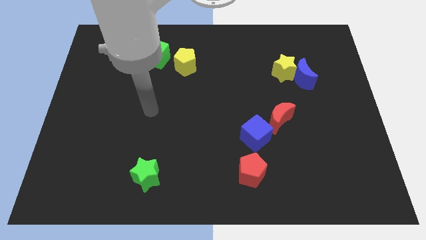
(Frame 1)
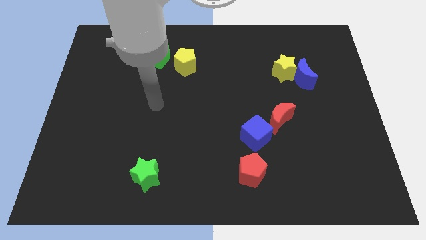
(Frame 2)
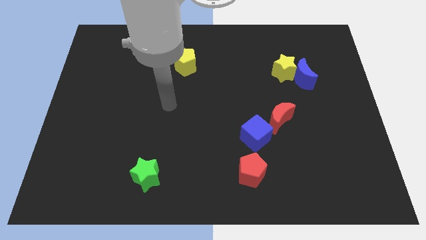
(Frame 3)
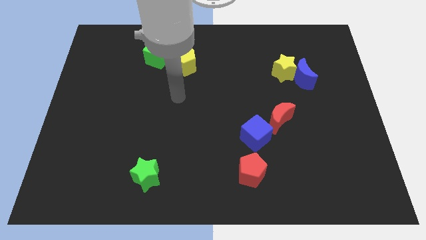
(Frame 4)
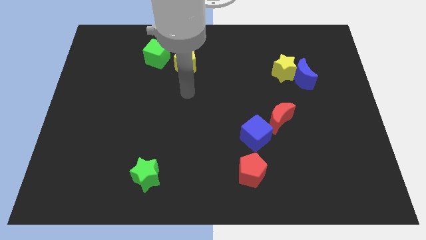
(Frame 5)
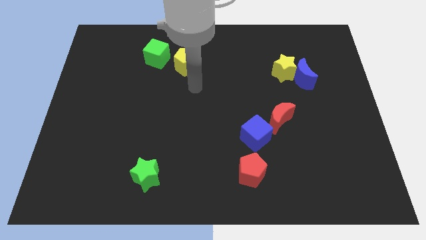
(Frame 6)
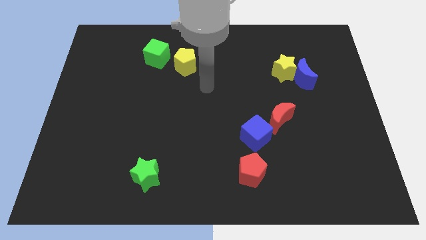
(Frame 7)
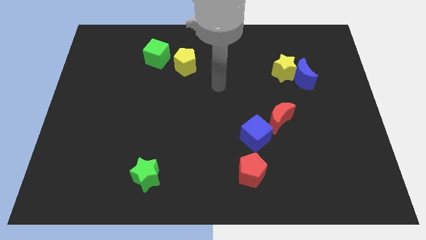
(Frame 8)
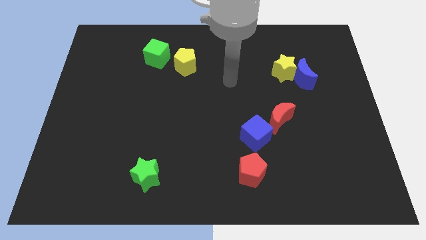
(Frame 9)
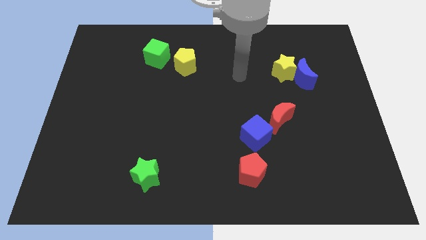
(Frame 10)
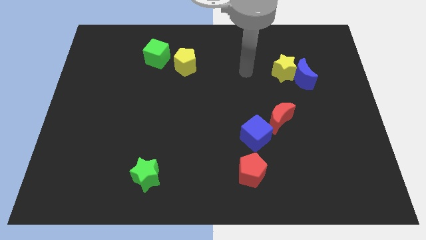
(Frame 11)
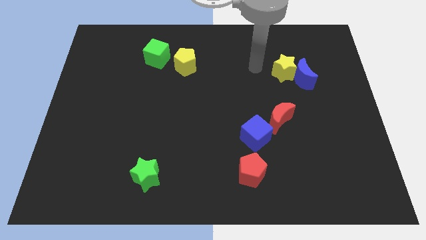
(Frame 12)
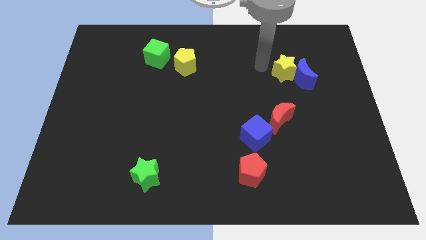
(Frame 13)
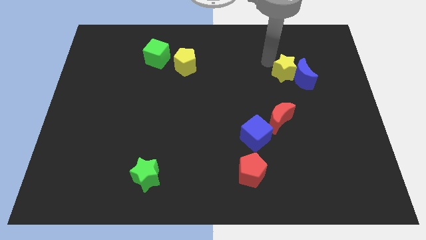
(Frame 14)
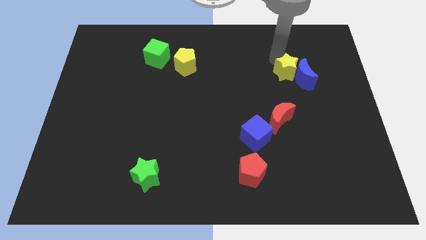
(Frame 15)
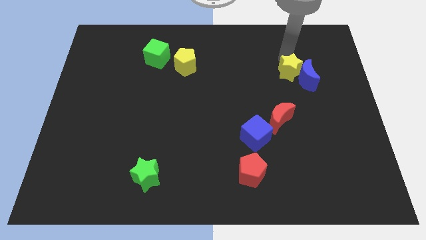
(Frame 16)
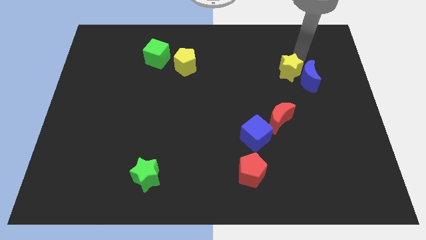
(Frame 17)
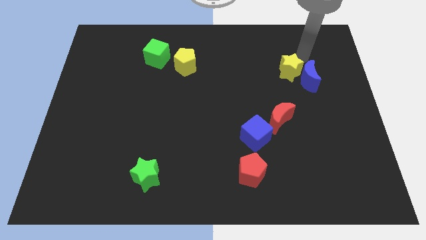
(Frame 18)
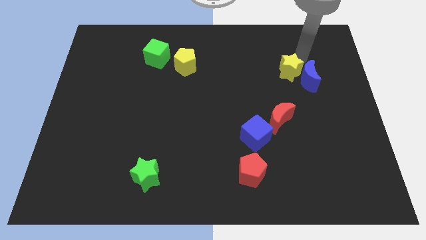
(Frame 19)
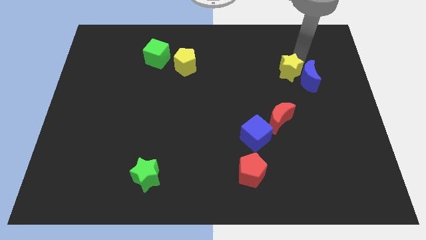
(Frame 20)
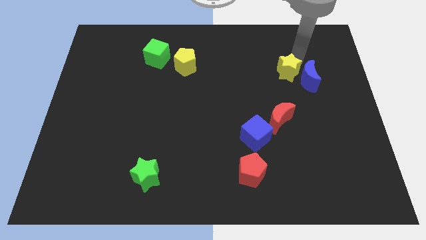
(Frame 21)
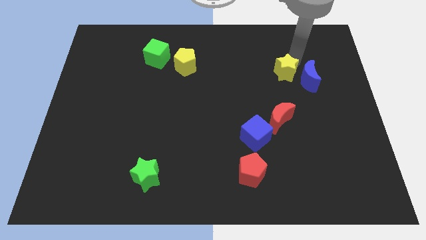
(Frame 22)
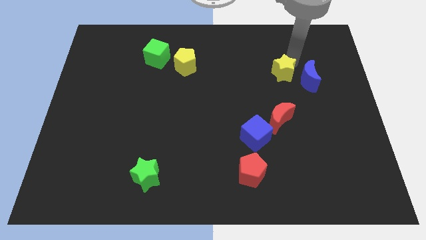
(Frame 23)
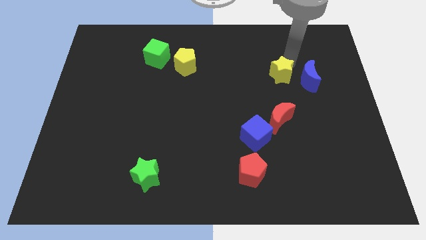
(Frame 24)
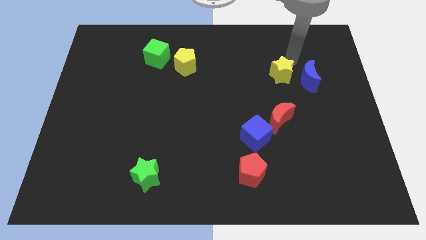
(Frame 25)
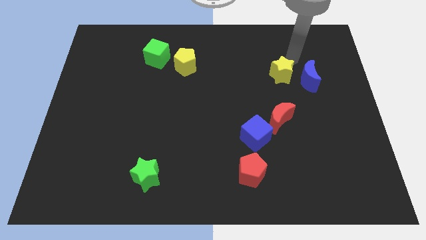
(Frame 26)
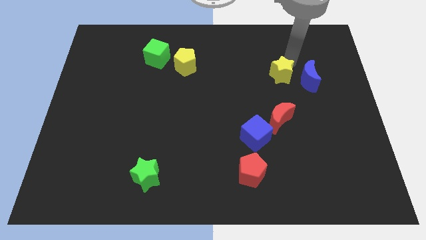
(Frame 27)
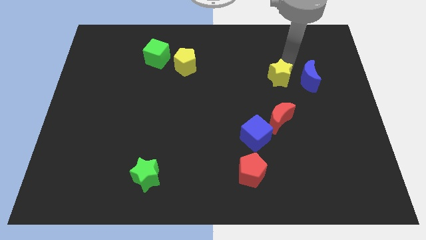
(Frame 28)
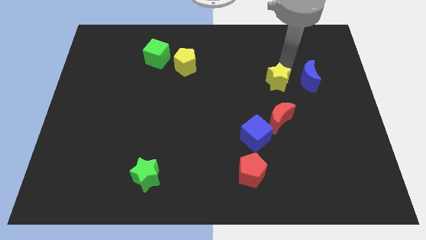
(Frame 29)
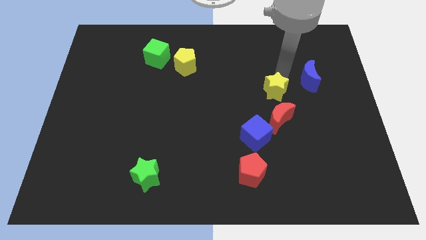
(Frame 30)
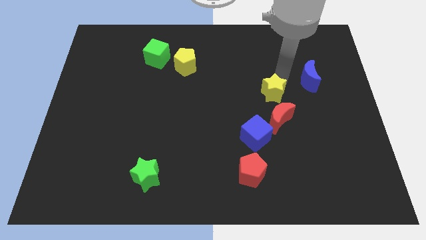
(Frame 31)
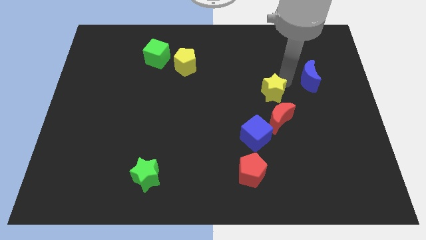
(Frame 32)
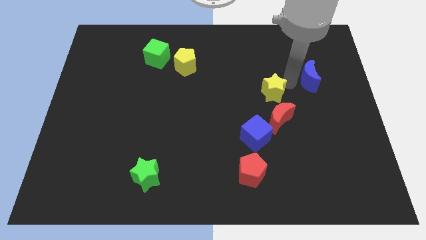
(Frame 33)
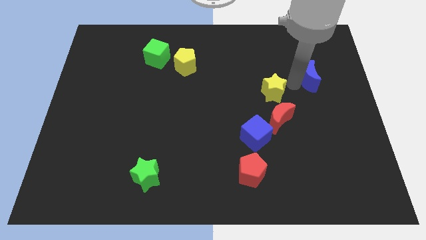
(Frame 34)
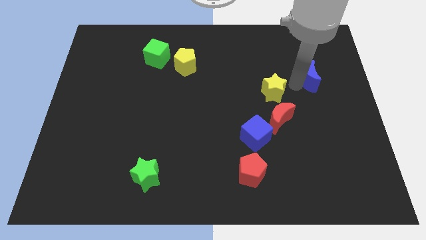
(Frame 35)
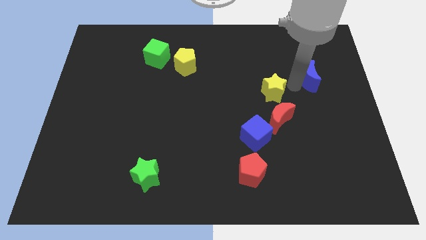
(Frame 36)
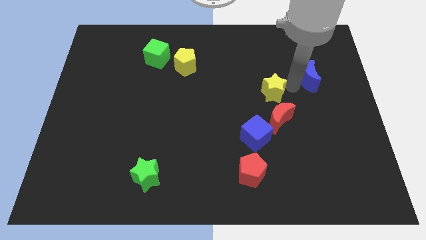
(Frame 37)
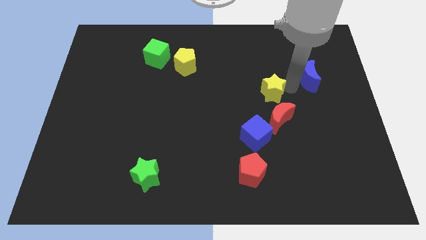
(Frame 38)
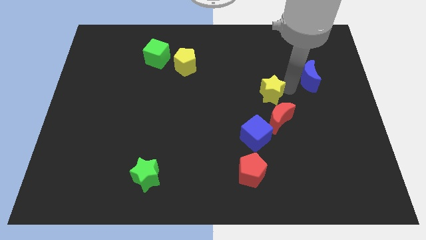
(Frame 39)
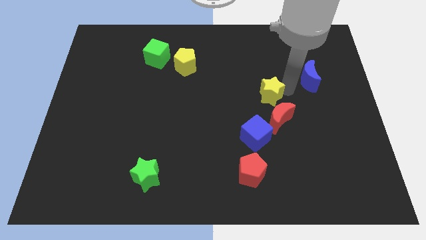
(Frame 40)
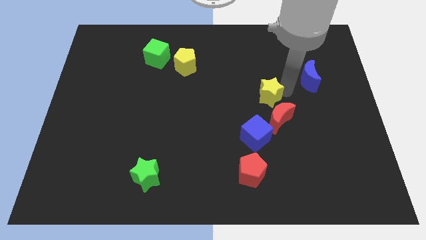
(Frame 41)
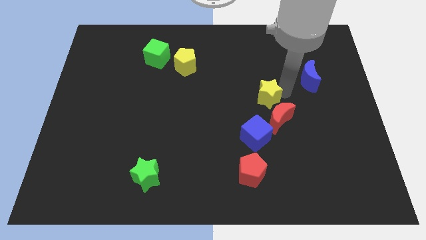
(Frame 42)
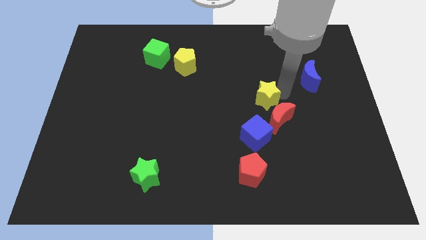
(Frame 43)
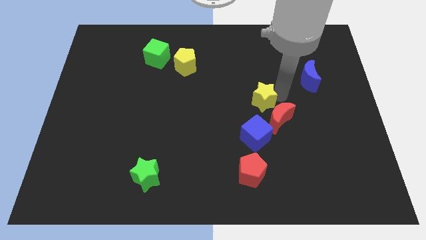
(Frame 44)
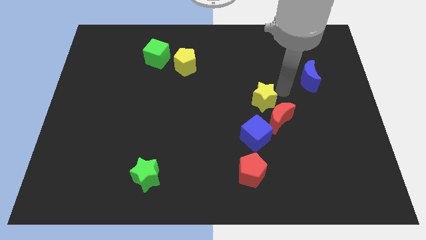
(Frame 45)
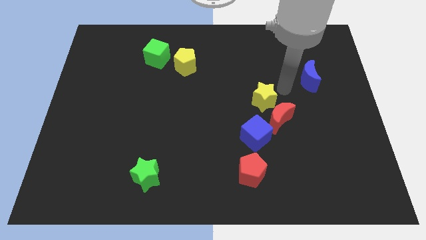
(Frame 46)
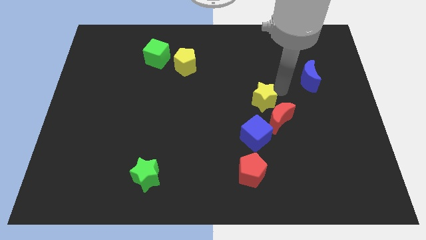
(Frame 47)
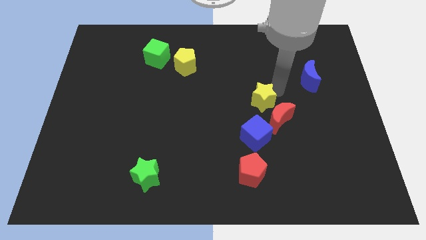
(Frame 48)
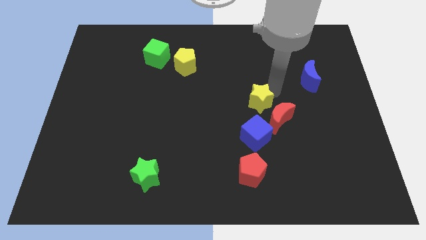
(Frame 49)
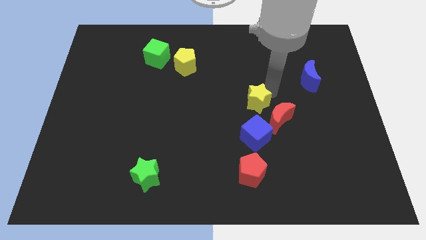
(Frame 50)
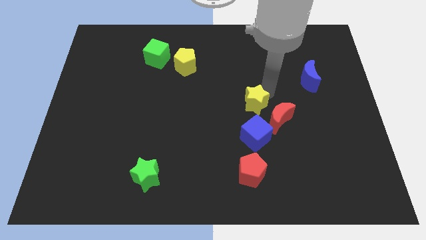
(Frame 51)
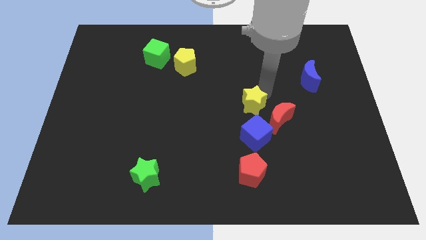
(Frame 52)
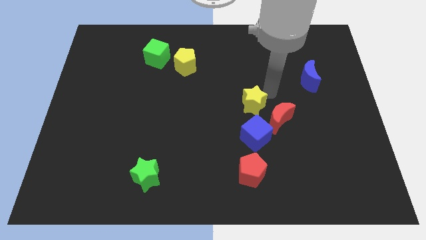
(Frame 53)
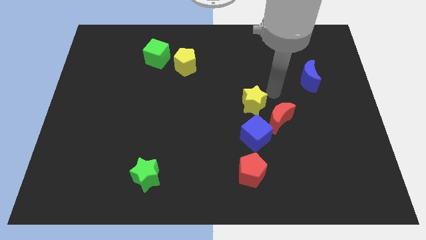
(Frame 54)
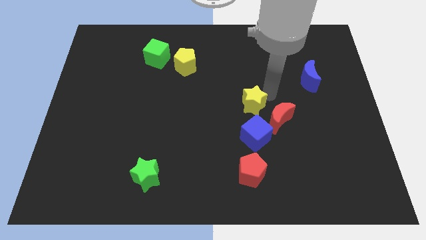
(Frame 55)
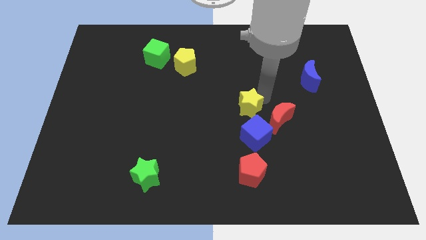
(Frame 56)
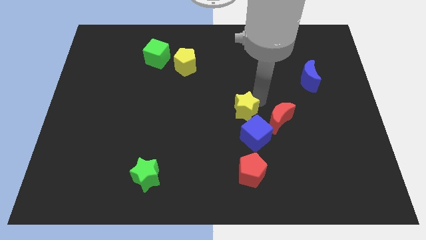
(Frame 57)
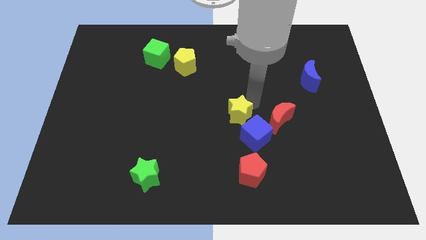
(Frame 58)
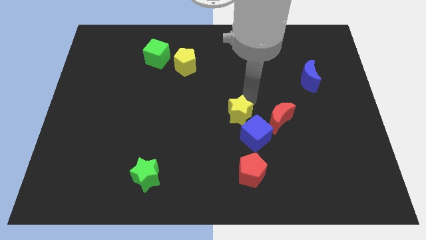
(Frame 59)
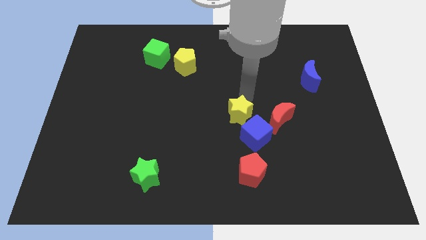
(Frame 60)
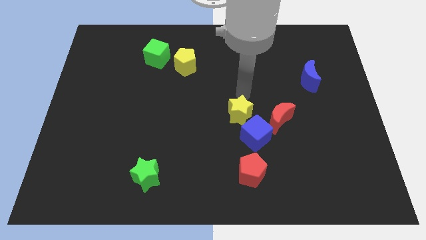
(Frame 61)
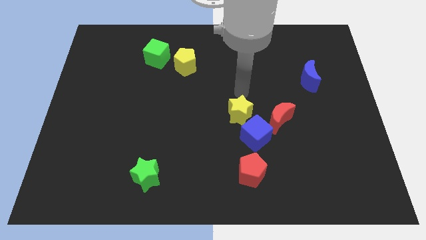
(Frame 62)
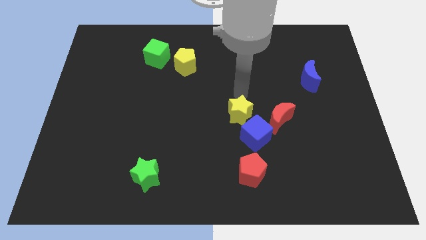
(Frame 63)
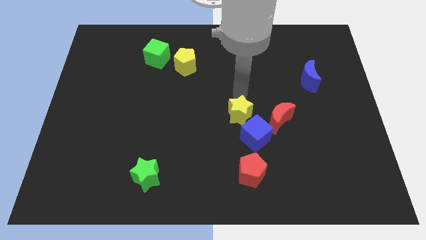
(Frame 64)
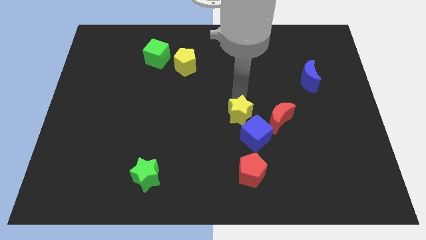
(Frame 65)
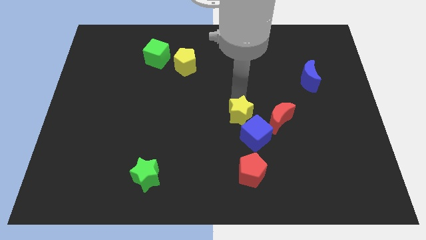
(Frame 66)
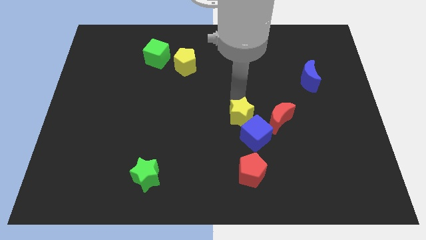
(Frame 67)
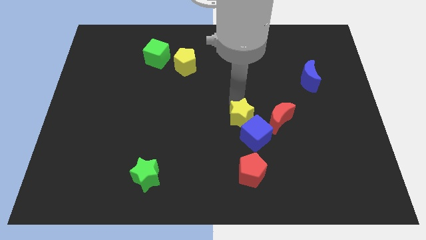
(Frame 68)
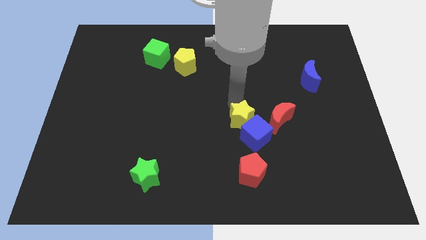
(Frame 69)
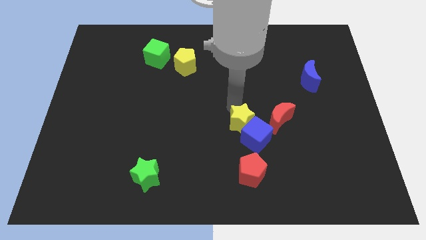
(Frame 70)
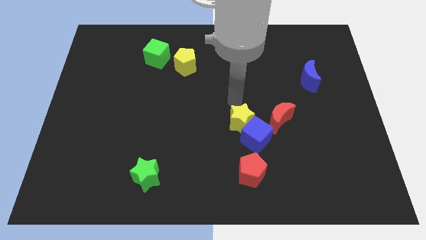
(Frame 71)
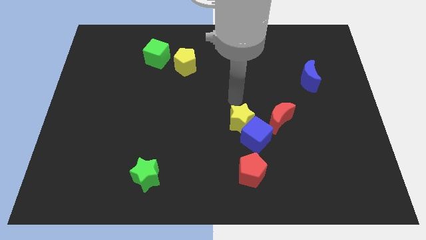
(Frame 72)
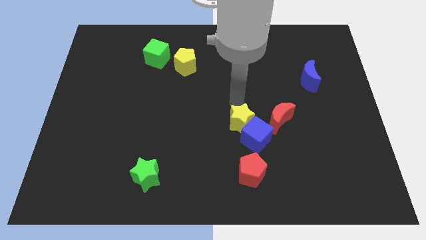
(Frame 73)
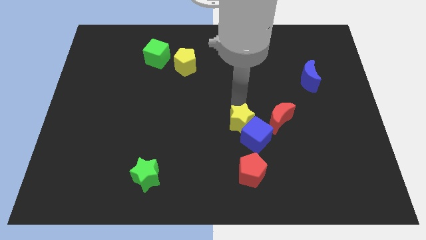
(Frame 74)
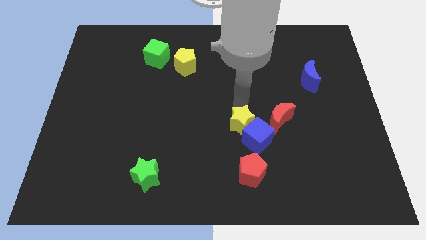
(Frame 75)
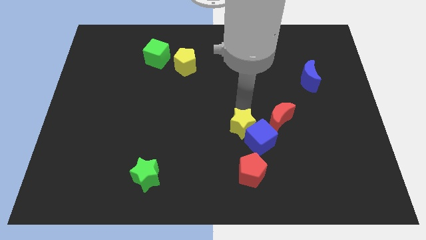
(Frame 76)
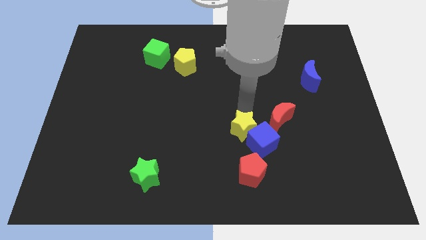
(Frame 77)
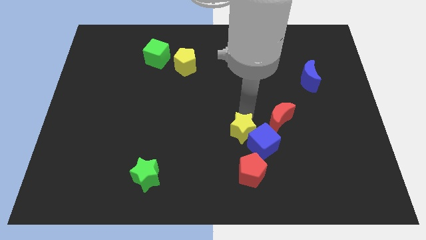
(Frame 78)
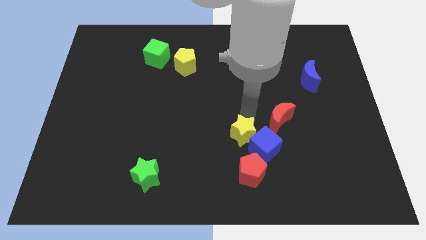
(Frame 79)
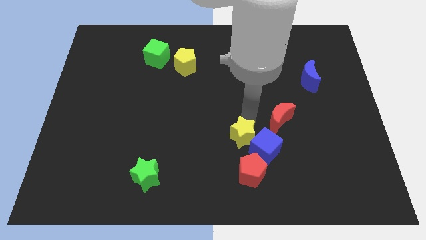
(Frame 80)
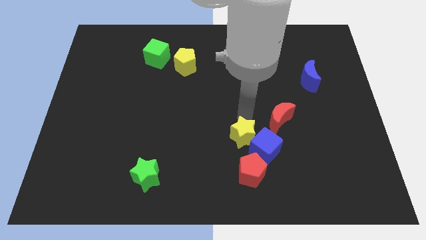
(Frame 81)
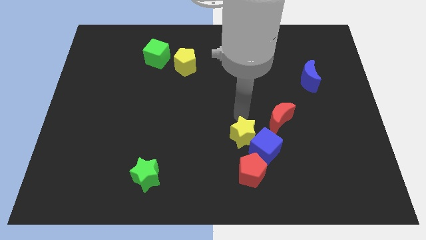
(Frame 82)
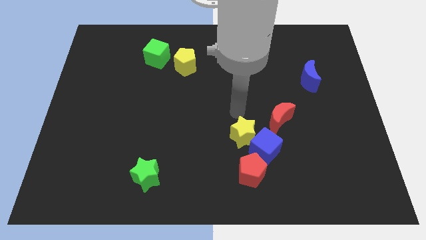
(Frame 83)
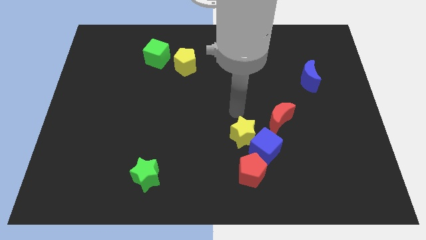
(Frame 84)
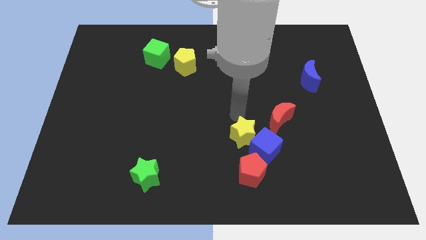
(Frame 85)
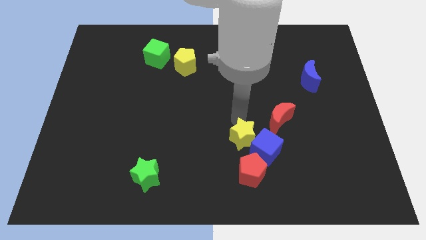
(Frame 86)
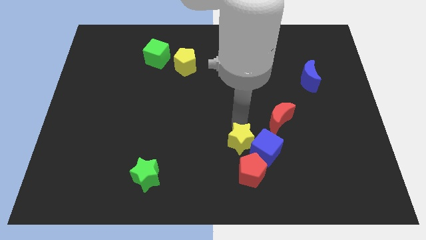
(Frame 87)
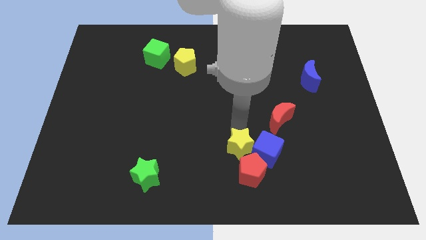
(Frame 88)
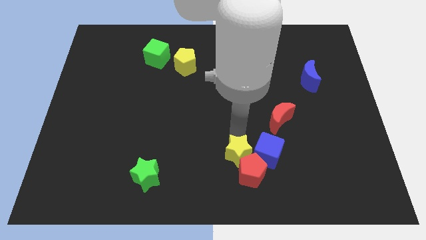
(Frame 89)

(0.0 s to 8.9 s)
put the yellow star to the red pentagon
